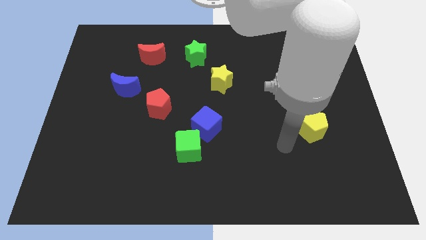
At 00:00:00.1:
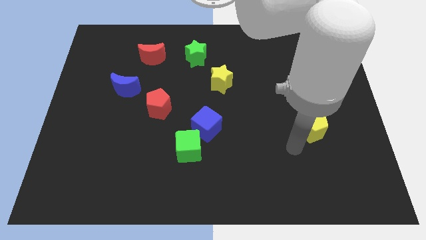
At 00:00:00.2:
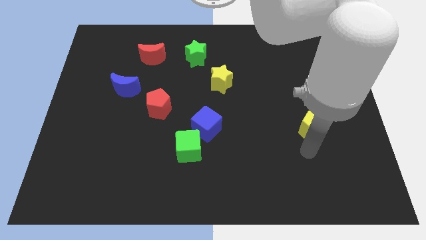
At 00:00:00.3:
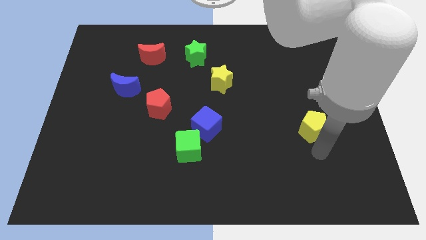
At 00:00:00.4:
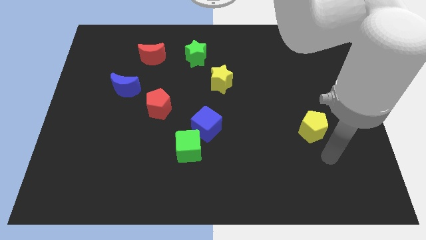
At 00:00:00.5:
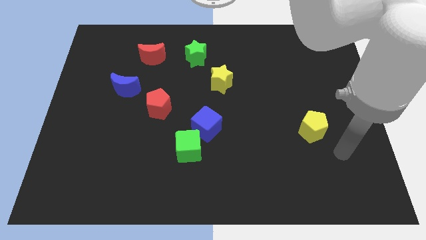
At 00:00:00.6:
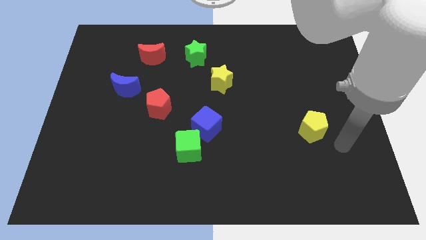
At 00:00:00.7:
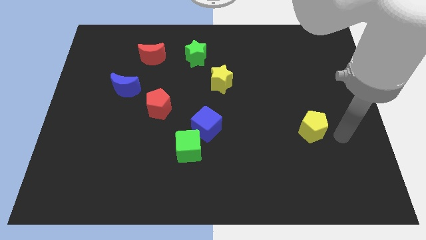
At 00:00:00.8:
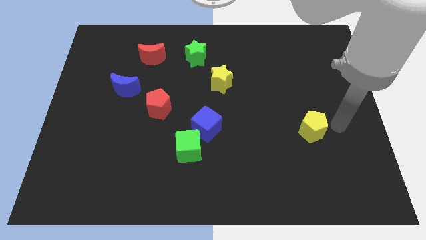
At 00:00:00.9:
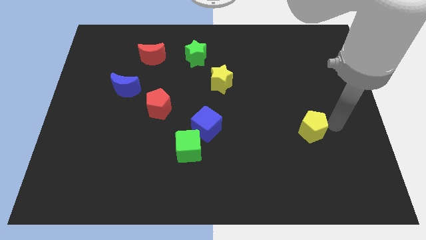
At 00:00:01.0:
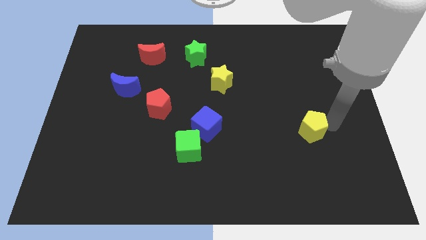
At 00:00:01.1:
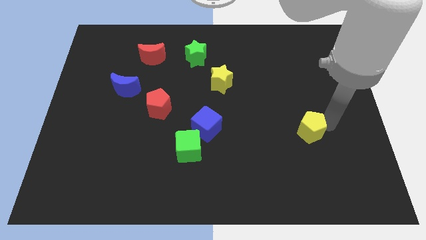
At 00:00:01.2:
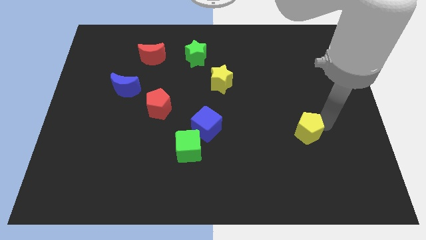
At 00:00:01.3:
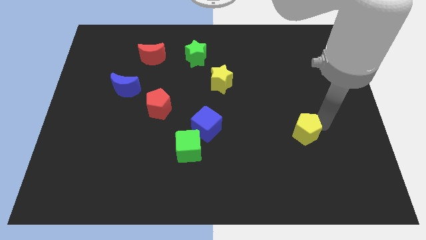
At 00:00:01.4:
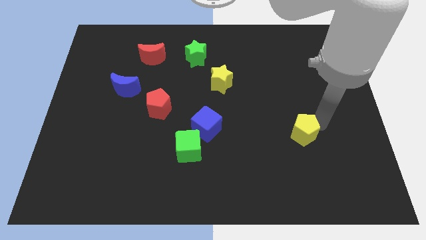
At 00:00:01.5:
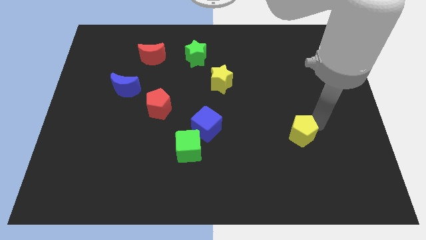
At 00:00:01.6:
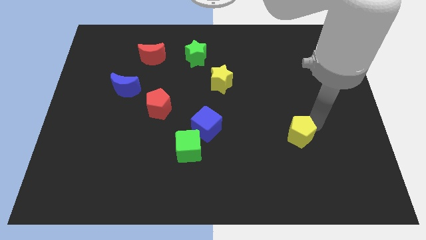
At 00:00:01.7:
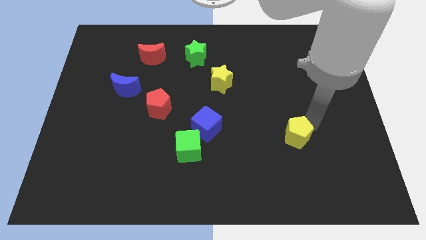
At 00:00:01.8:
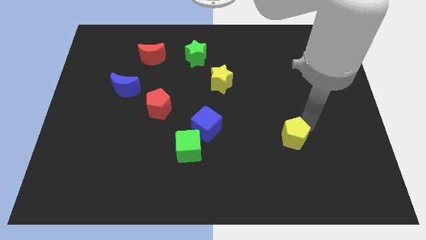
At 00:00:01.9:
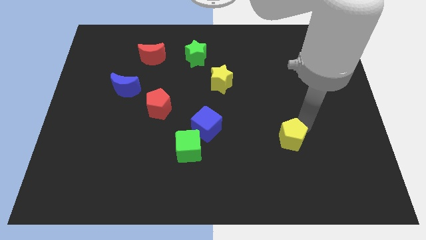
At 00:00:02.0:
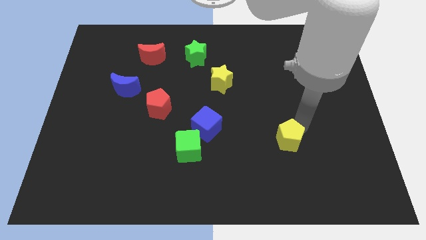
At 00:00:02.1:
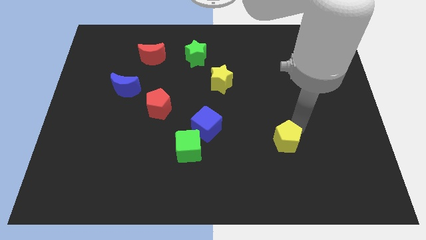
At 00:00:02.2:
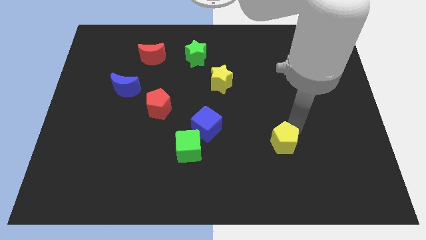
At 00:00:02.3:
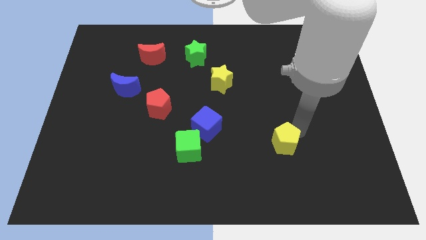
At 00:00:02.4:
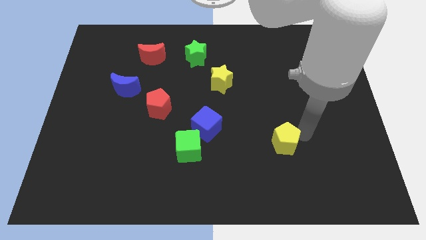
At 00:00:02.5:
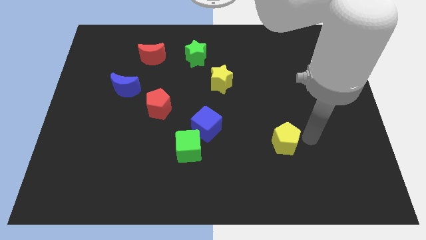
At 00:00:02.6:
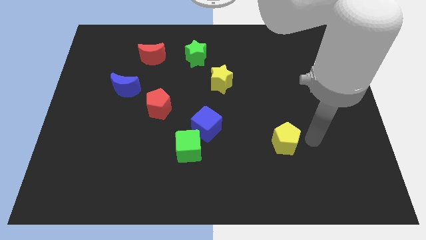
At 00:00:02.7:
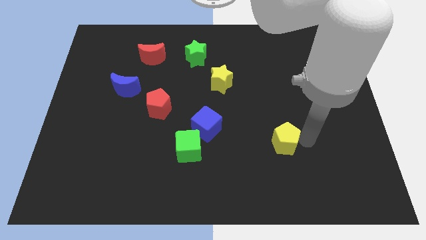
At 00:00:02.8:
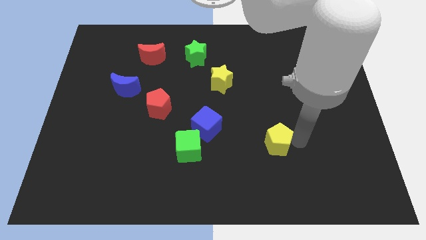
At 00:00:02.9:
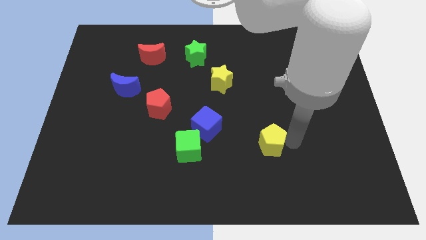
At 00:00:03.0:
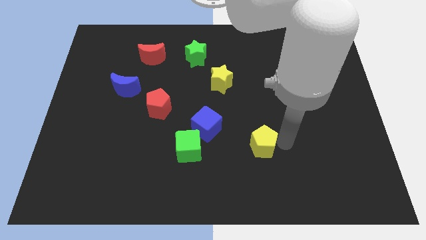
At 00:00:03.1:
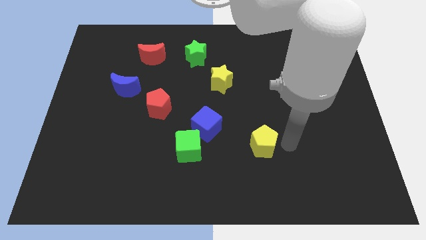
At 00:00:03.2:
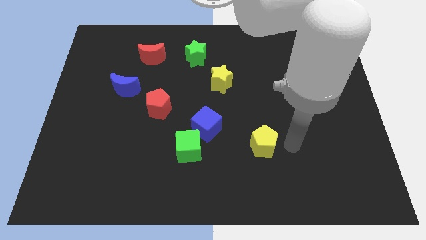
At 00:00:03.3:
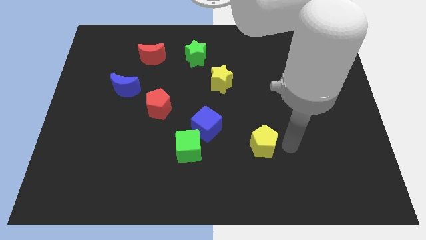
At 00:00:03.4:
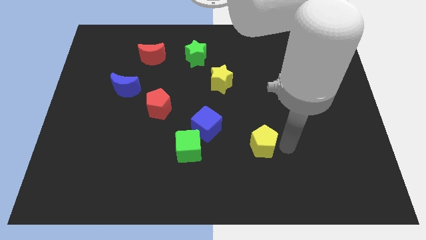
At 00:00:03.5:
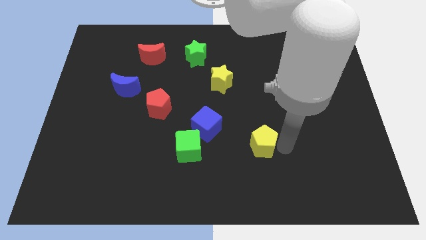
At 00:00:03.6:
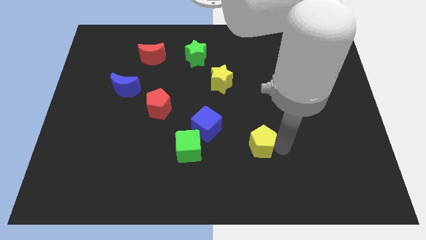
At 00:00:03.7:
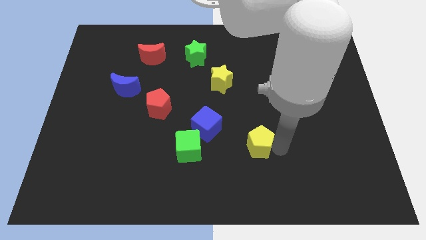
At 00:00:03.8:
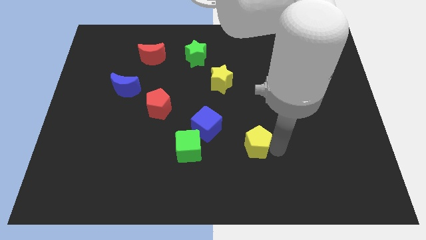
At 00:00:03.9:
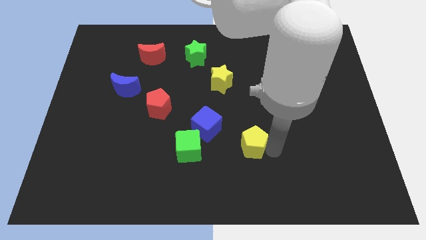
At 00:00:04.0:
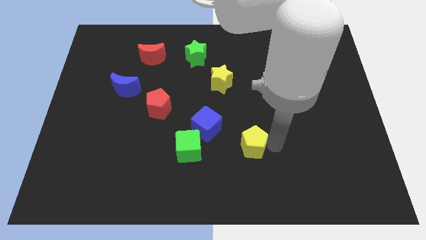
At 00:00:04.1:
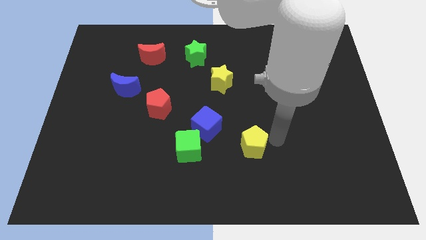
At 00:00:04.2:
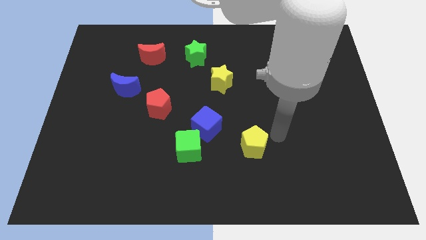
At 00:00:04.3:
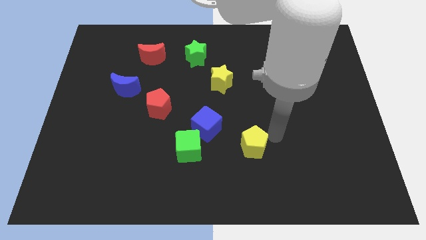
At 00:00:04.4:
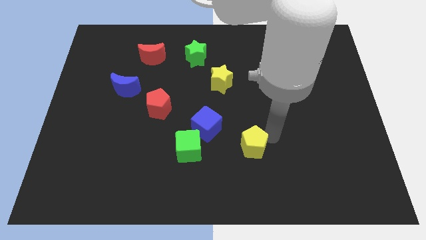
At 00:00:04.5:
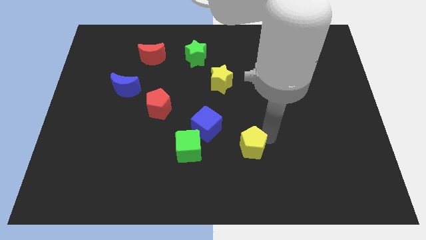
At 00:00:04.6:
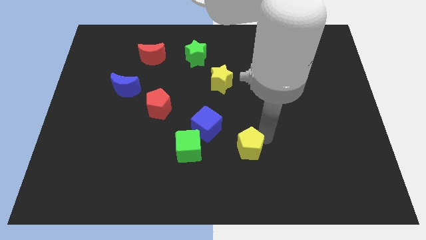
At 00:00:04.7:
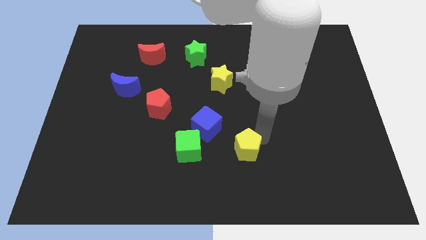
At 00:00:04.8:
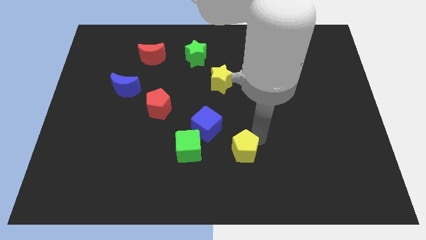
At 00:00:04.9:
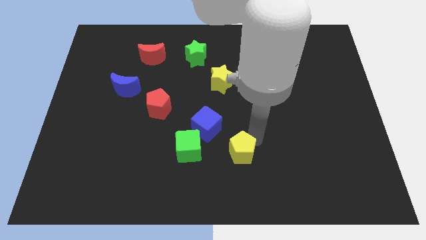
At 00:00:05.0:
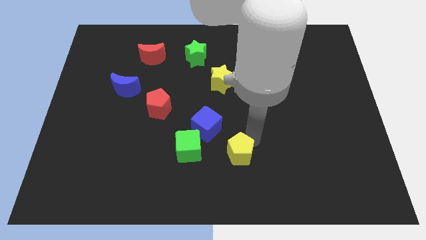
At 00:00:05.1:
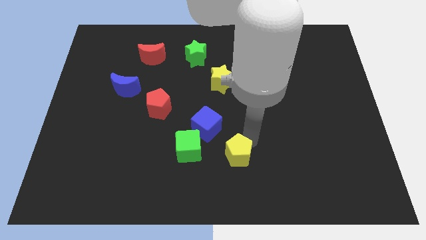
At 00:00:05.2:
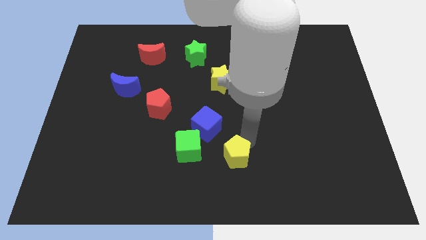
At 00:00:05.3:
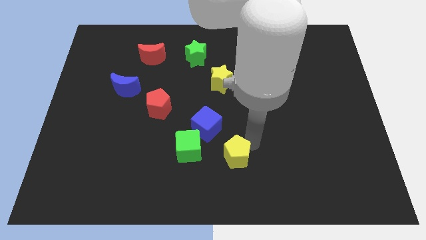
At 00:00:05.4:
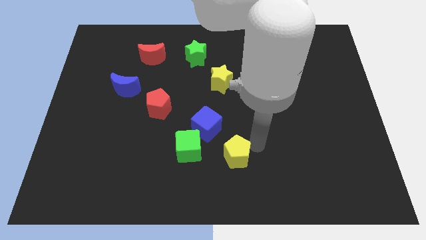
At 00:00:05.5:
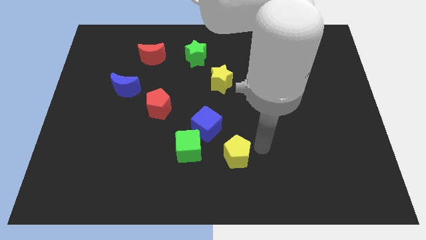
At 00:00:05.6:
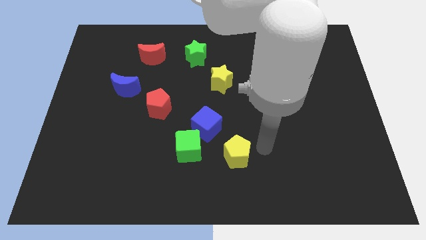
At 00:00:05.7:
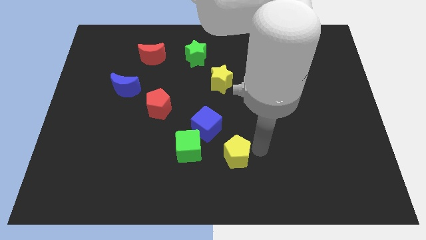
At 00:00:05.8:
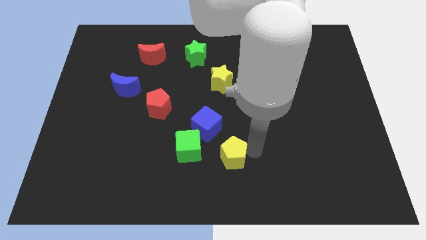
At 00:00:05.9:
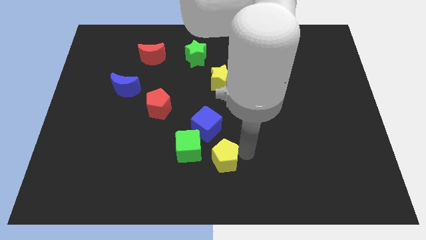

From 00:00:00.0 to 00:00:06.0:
move the yellow pentagon below the blue cube
